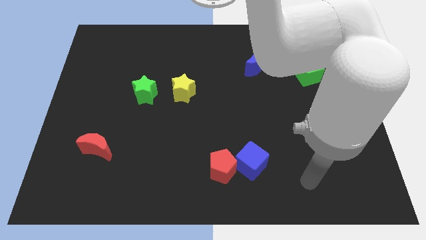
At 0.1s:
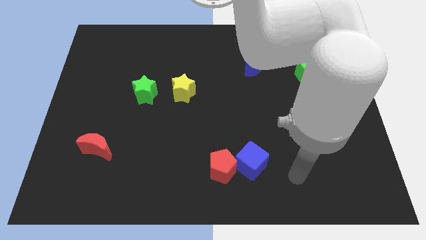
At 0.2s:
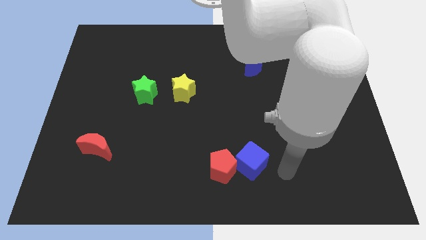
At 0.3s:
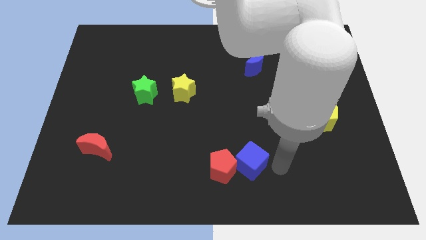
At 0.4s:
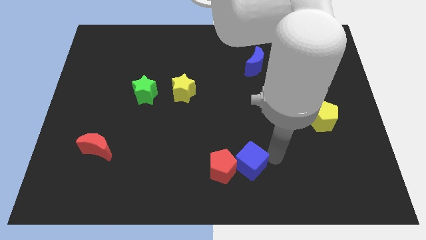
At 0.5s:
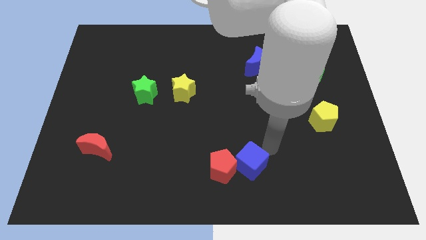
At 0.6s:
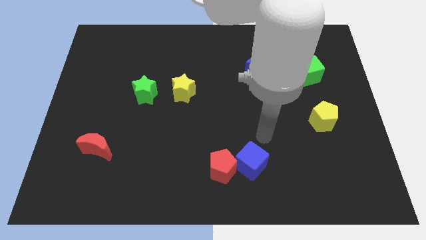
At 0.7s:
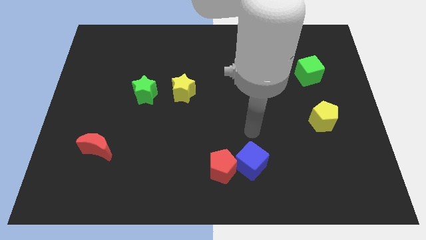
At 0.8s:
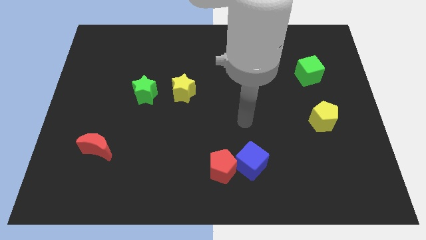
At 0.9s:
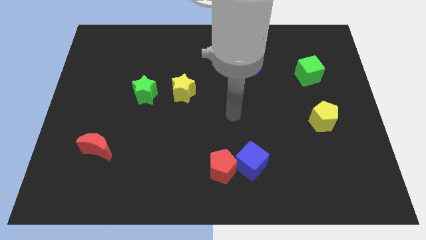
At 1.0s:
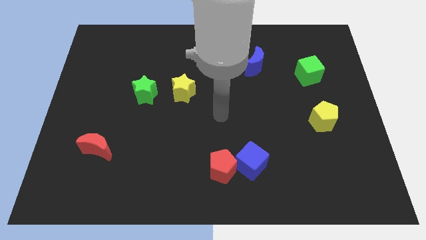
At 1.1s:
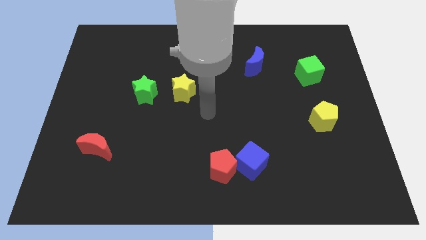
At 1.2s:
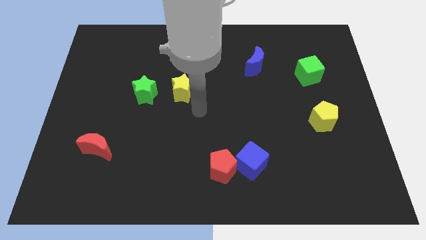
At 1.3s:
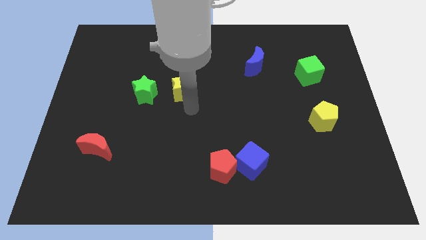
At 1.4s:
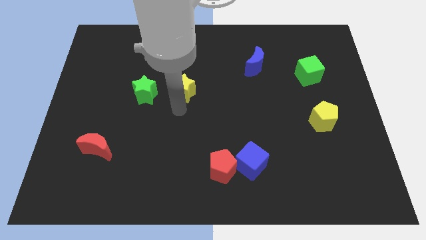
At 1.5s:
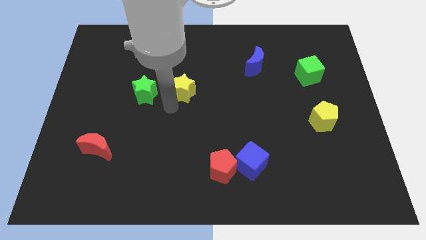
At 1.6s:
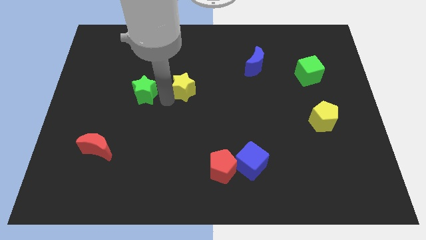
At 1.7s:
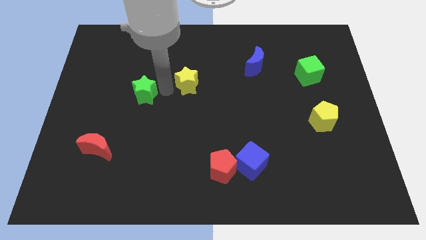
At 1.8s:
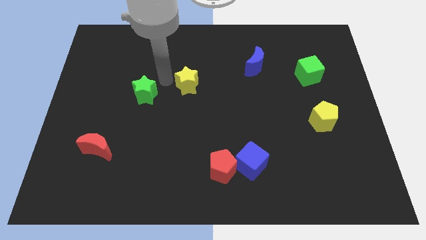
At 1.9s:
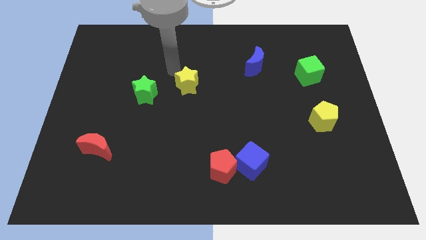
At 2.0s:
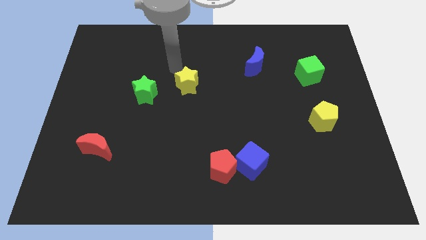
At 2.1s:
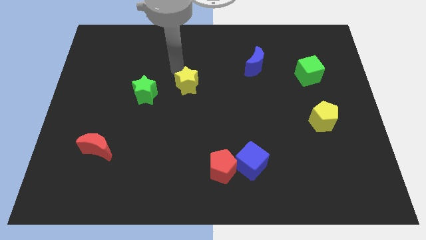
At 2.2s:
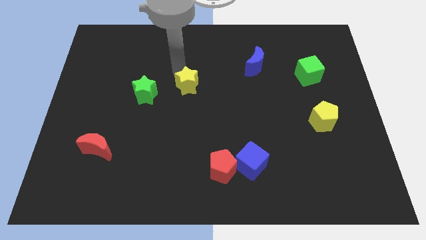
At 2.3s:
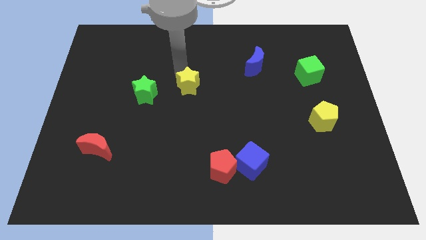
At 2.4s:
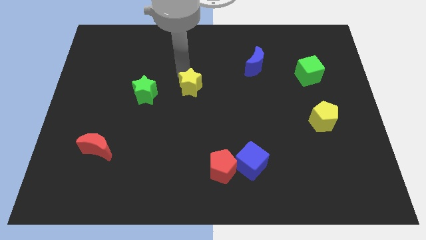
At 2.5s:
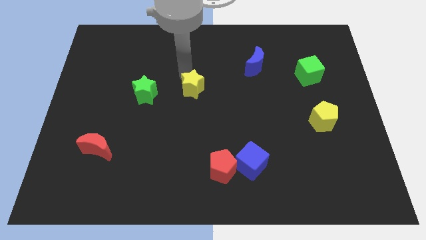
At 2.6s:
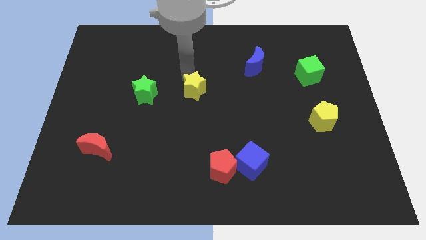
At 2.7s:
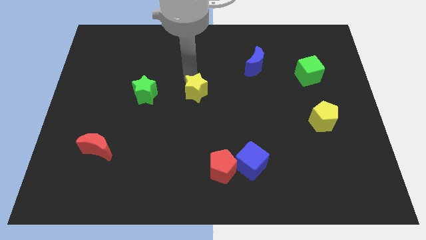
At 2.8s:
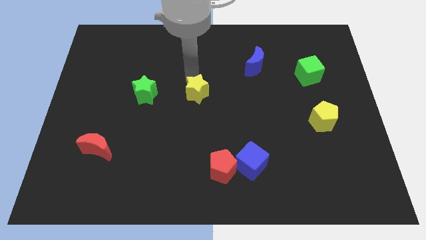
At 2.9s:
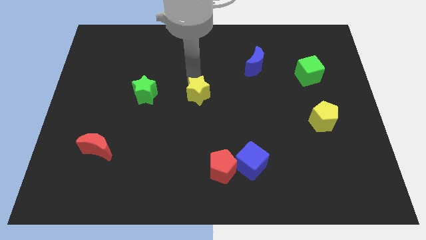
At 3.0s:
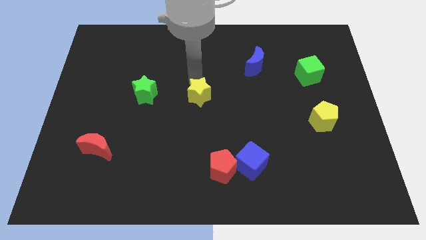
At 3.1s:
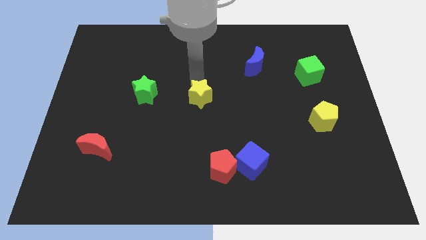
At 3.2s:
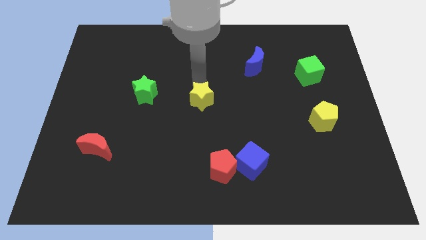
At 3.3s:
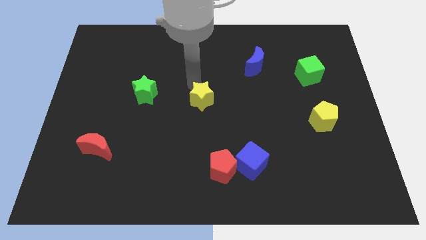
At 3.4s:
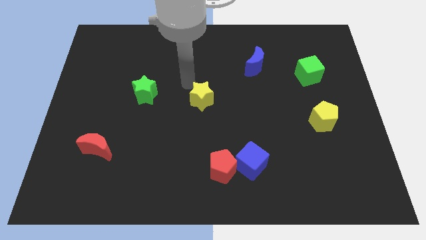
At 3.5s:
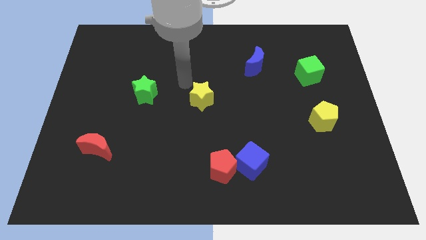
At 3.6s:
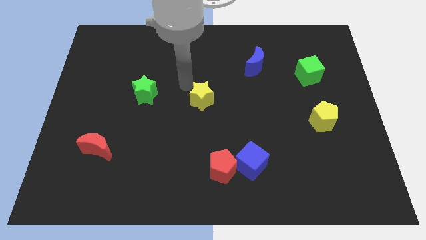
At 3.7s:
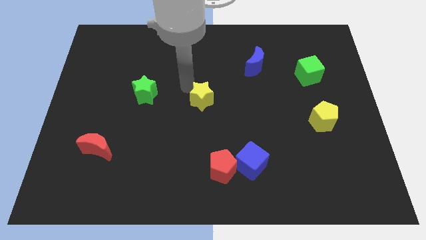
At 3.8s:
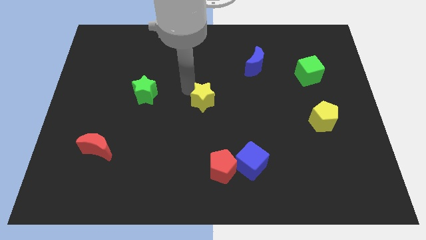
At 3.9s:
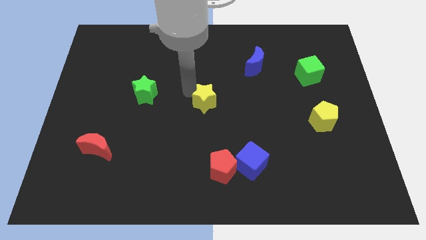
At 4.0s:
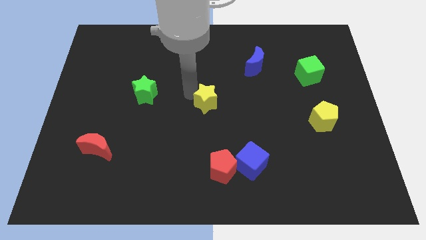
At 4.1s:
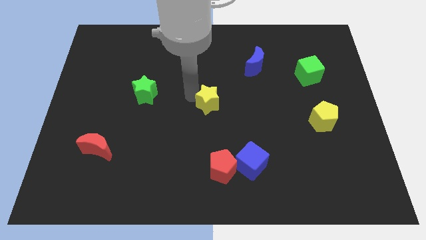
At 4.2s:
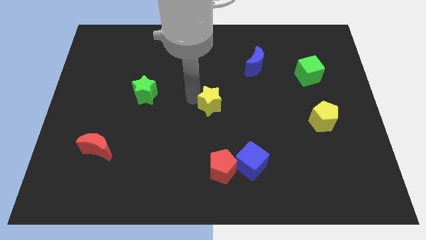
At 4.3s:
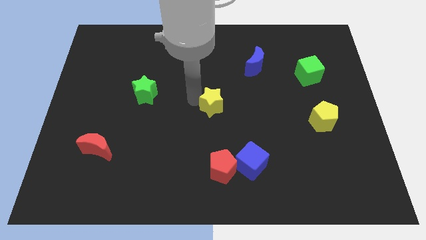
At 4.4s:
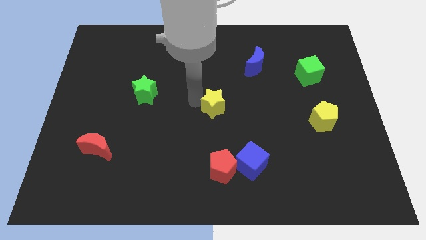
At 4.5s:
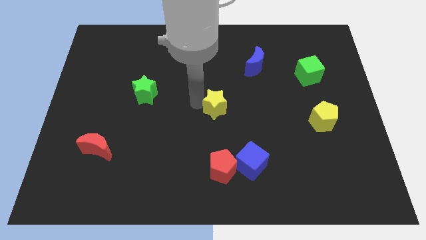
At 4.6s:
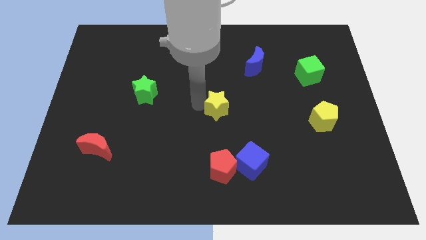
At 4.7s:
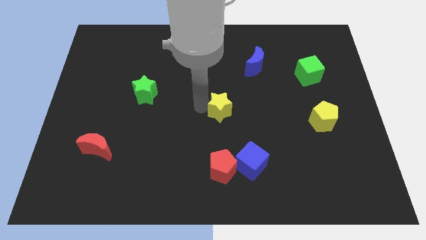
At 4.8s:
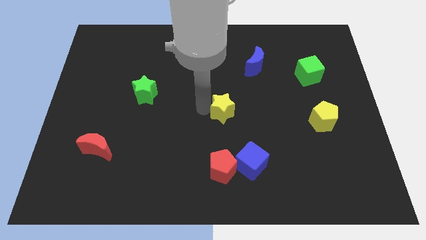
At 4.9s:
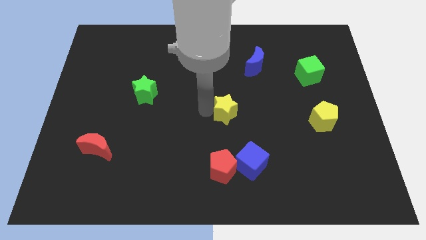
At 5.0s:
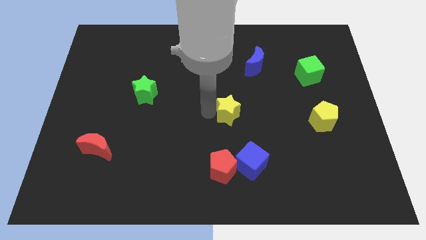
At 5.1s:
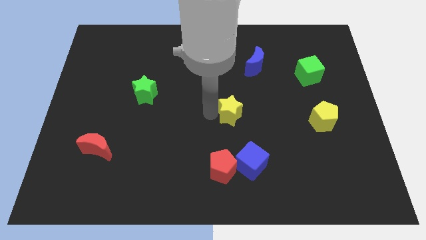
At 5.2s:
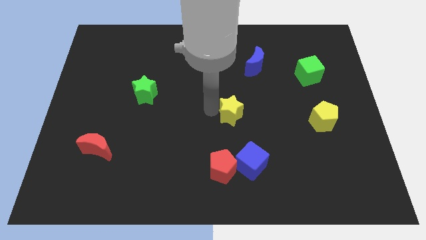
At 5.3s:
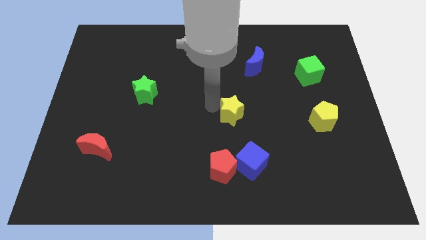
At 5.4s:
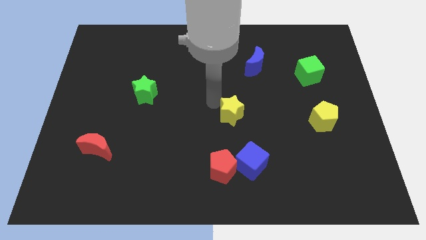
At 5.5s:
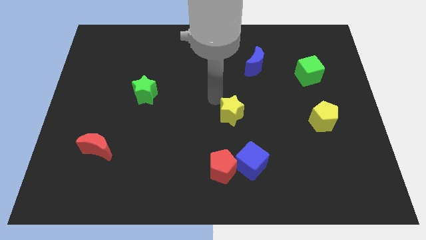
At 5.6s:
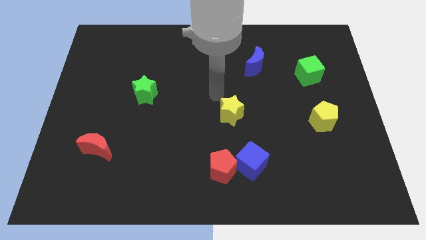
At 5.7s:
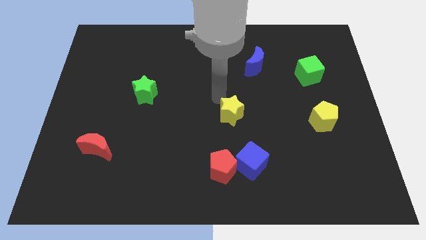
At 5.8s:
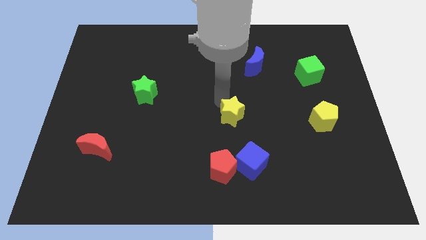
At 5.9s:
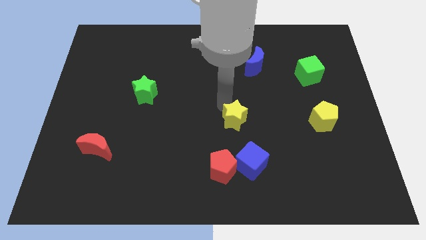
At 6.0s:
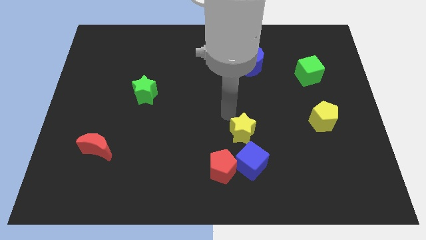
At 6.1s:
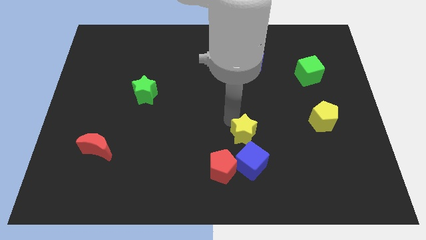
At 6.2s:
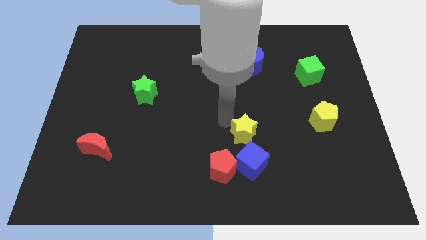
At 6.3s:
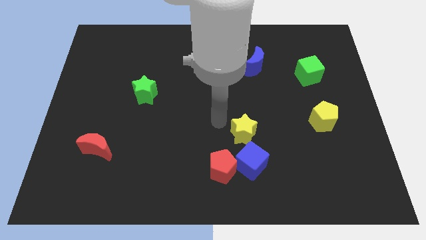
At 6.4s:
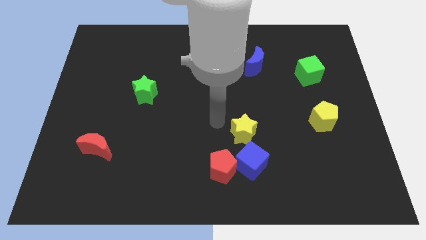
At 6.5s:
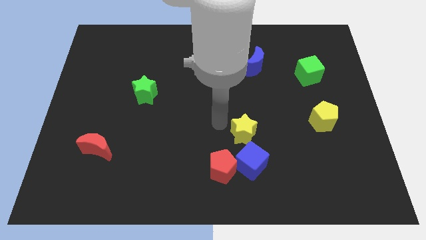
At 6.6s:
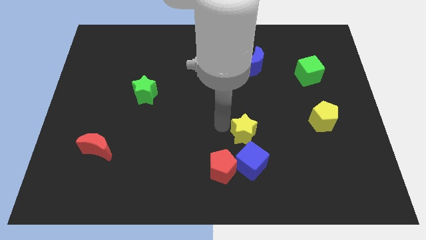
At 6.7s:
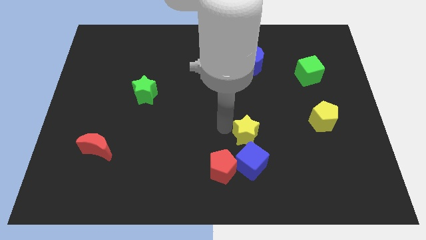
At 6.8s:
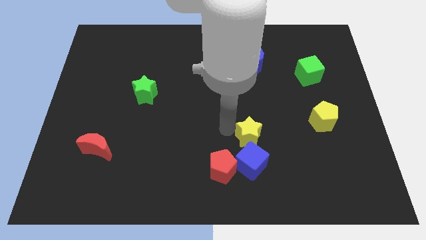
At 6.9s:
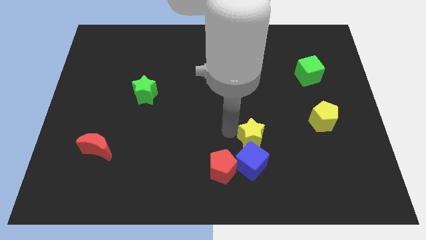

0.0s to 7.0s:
slide the yellow star down and to the right

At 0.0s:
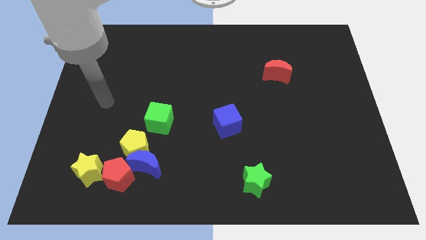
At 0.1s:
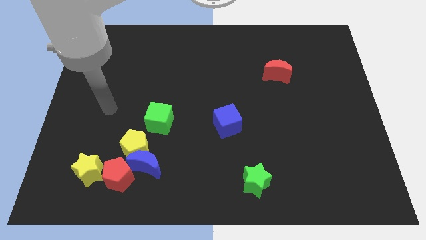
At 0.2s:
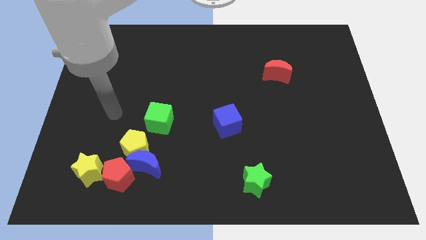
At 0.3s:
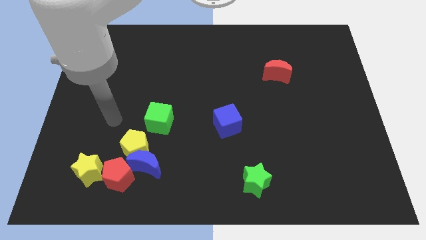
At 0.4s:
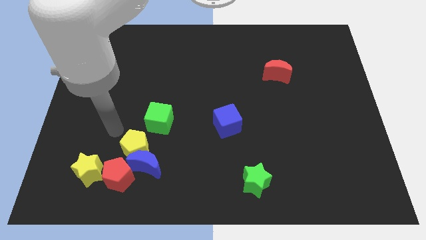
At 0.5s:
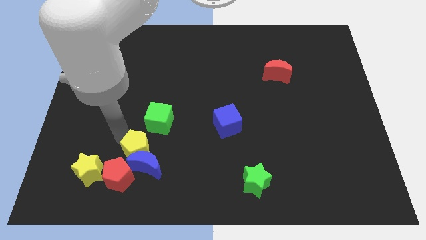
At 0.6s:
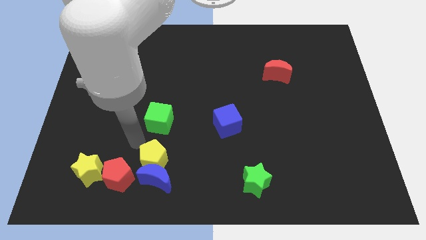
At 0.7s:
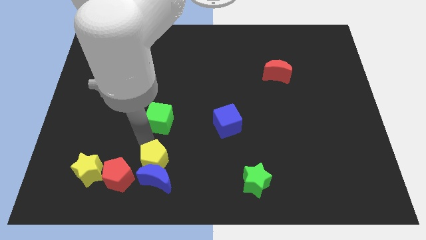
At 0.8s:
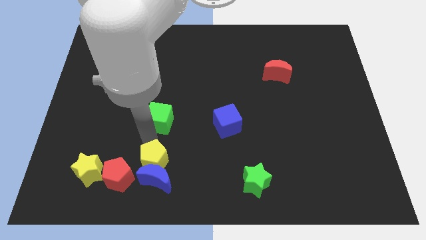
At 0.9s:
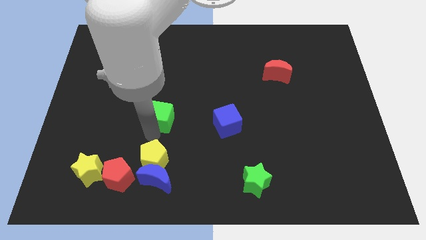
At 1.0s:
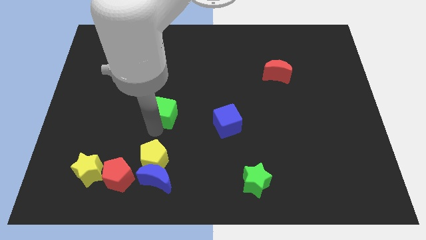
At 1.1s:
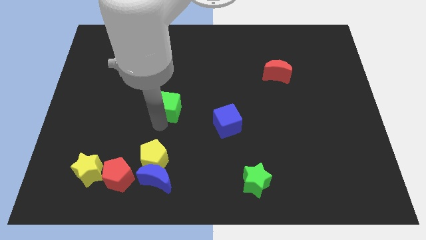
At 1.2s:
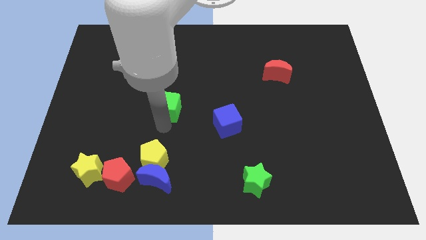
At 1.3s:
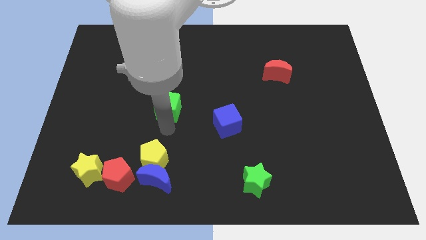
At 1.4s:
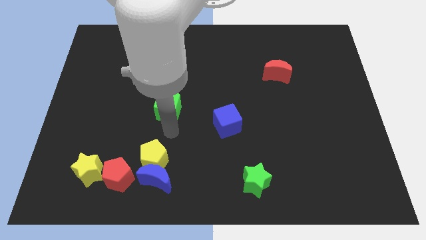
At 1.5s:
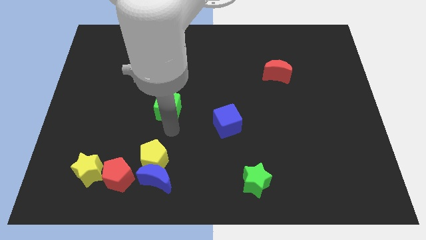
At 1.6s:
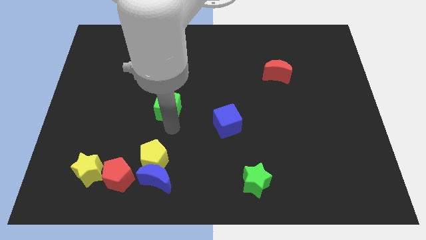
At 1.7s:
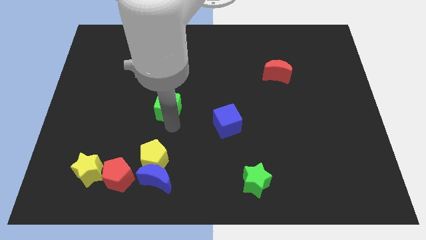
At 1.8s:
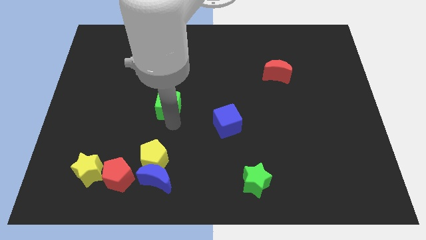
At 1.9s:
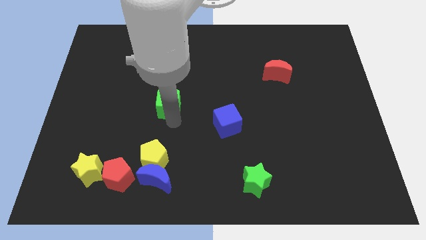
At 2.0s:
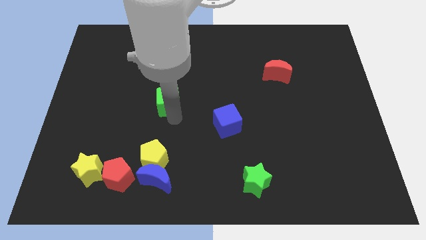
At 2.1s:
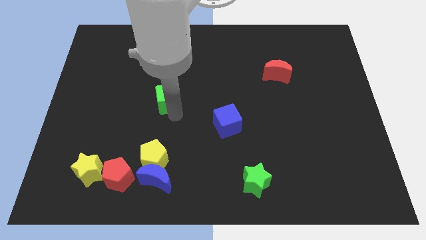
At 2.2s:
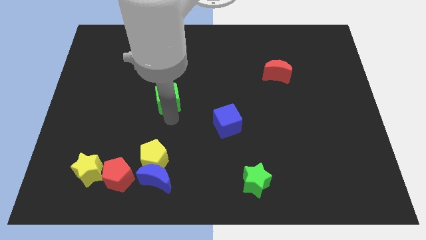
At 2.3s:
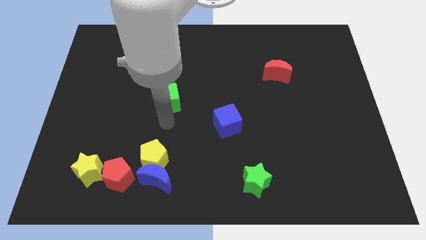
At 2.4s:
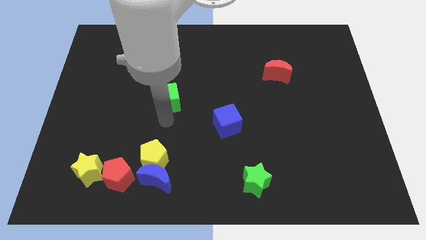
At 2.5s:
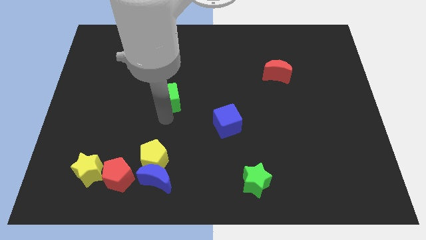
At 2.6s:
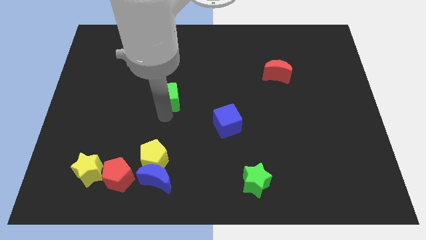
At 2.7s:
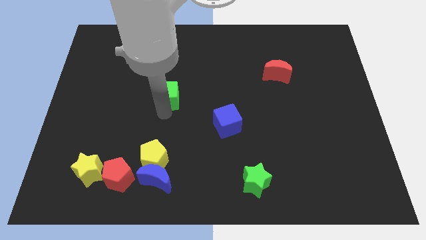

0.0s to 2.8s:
move the green cube upwards a bit
